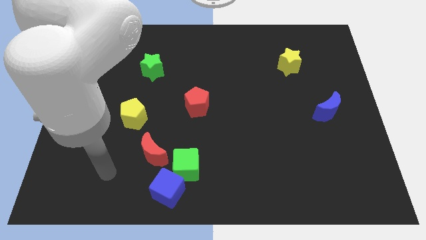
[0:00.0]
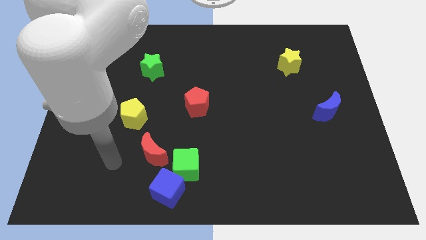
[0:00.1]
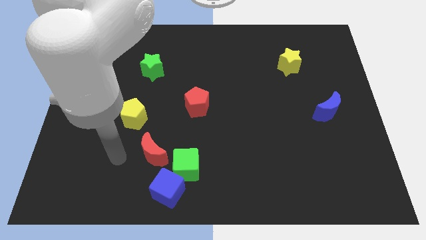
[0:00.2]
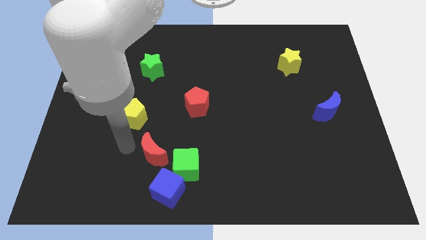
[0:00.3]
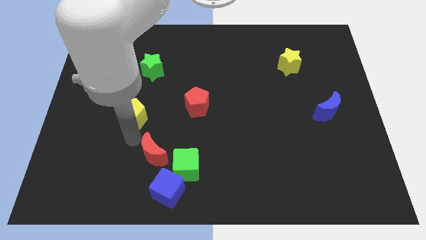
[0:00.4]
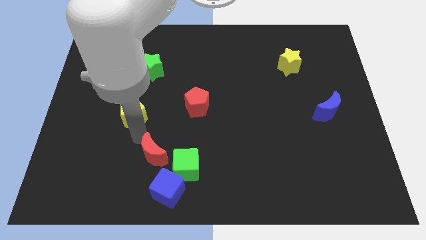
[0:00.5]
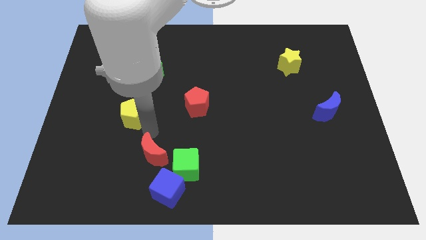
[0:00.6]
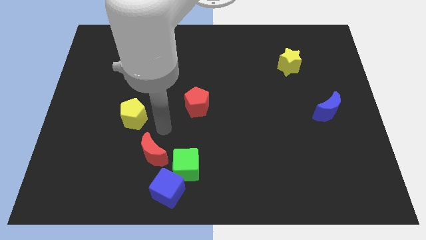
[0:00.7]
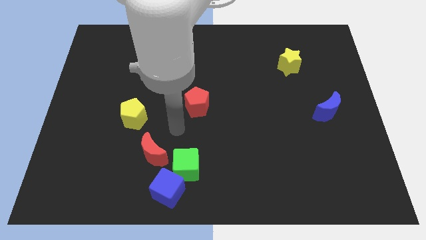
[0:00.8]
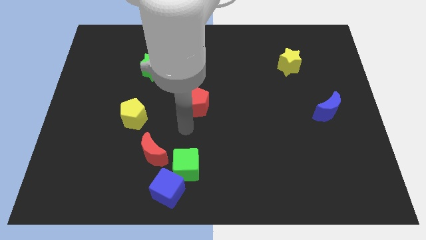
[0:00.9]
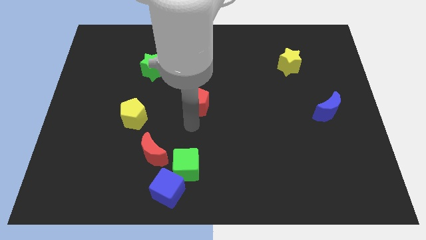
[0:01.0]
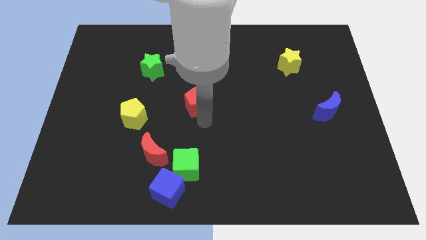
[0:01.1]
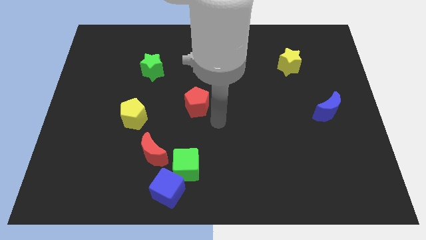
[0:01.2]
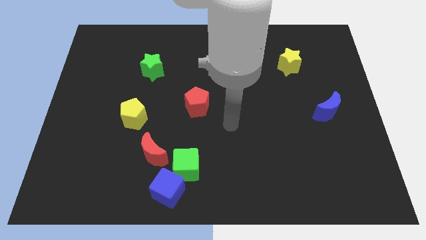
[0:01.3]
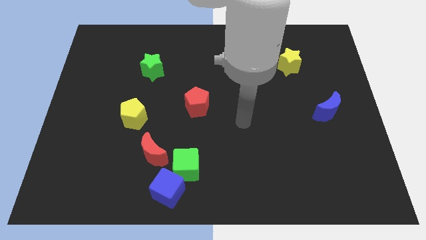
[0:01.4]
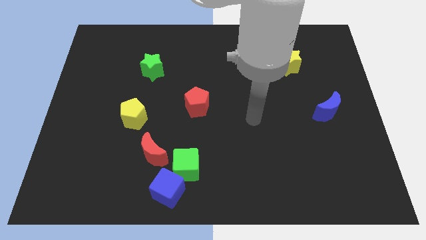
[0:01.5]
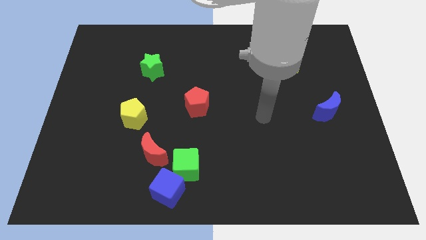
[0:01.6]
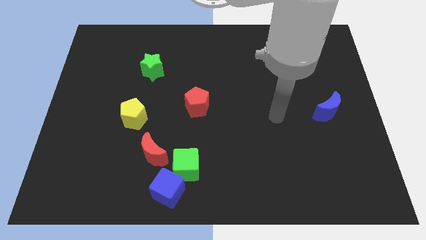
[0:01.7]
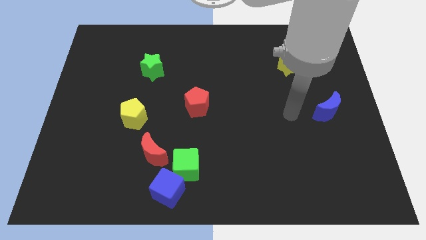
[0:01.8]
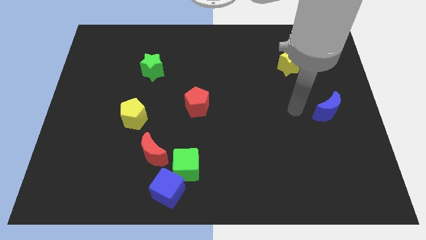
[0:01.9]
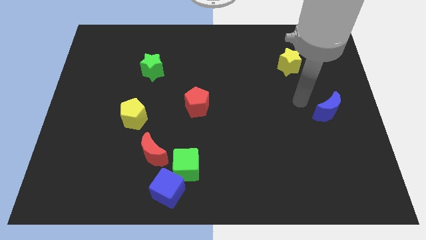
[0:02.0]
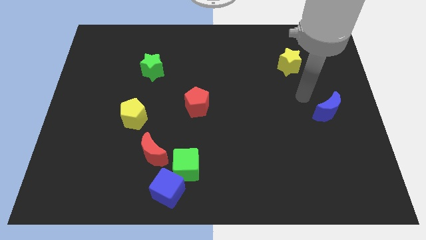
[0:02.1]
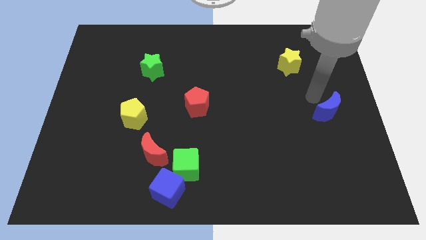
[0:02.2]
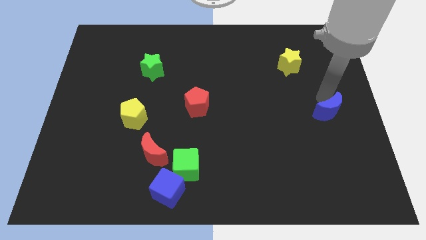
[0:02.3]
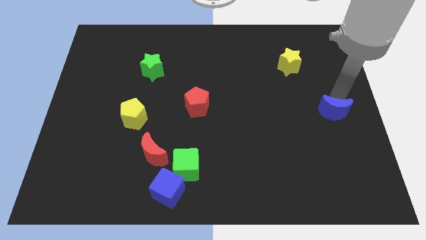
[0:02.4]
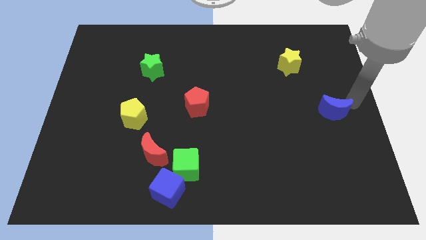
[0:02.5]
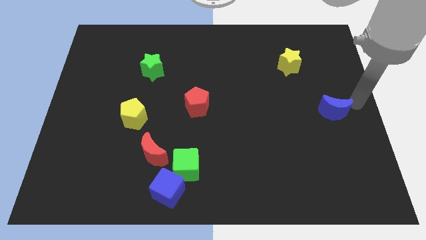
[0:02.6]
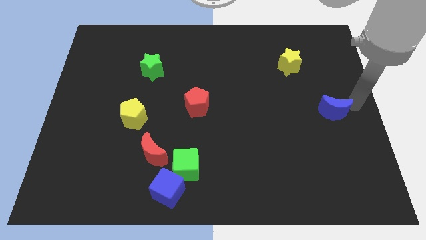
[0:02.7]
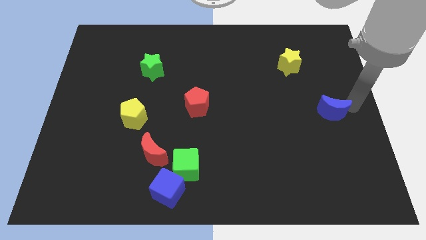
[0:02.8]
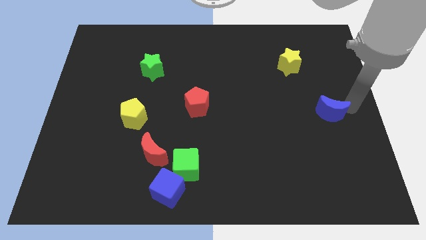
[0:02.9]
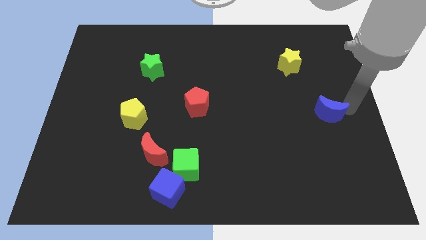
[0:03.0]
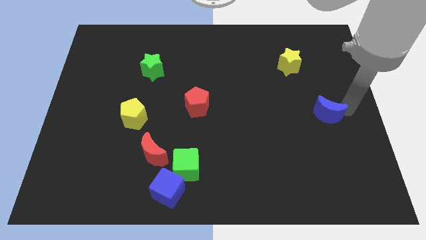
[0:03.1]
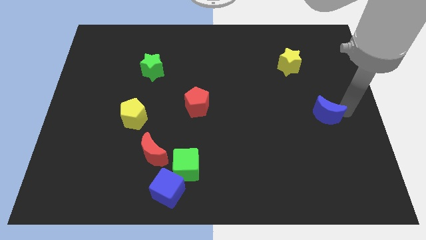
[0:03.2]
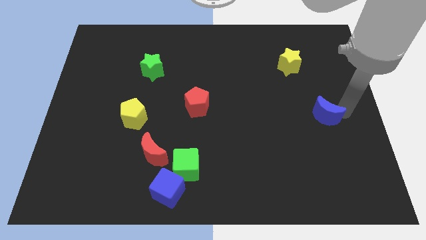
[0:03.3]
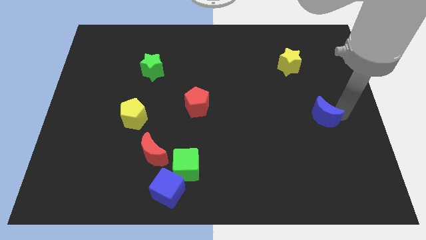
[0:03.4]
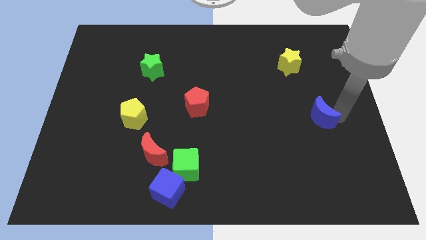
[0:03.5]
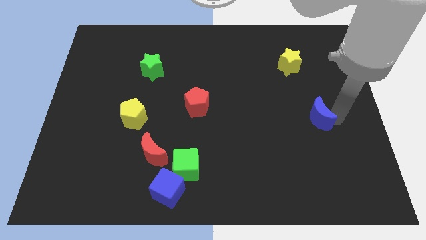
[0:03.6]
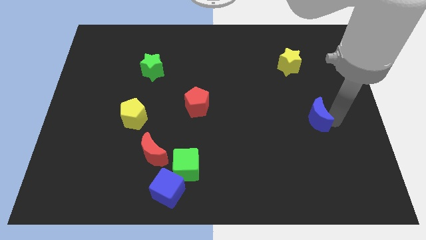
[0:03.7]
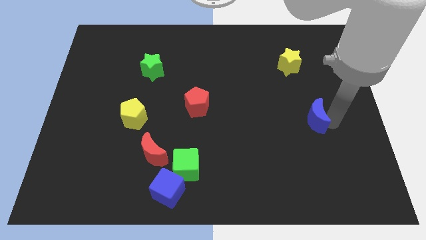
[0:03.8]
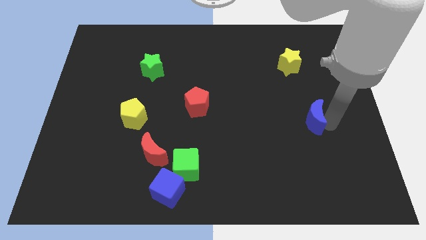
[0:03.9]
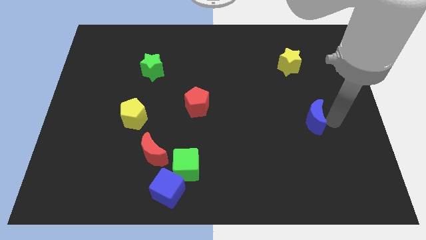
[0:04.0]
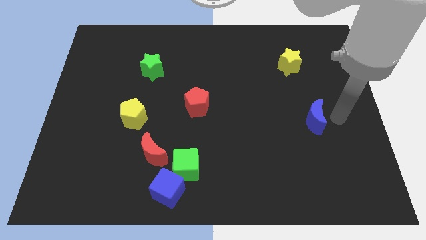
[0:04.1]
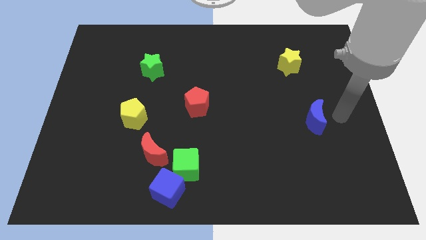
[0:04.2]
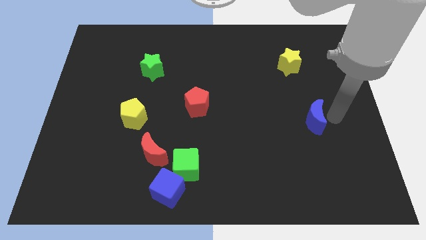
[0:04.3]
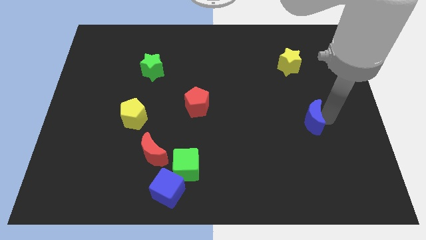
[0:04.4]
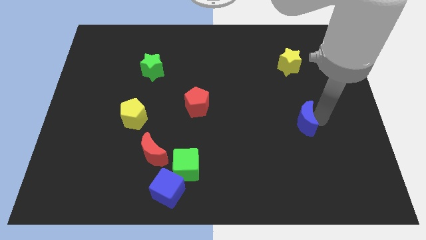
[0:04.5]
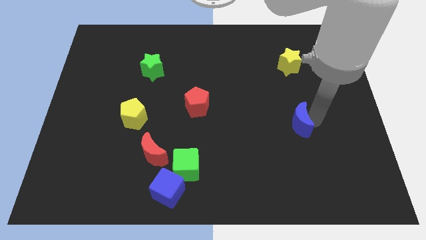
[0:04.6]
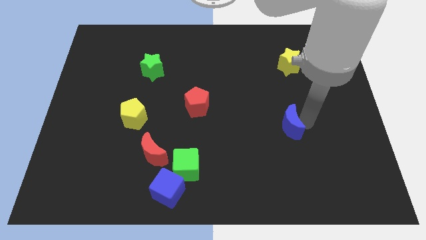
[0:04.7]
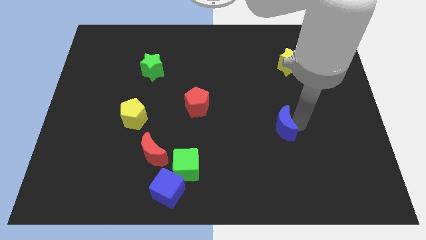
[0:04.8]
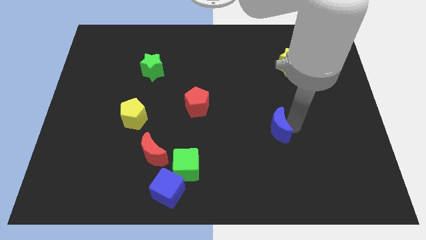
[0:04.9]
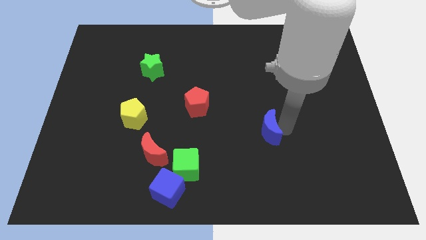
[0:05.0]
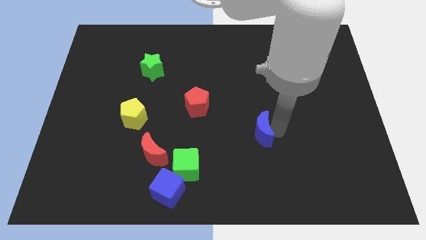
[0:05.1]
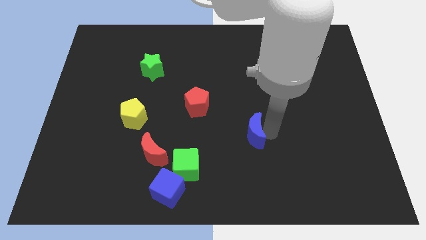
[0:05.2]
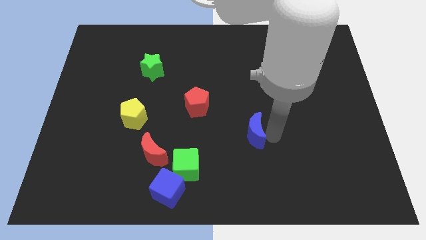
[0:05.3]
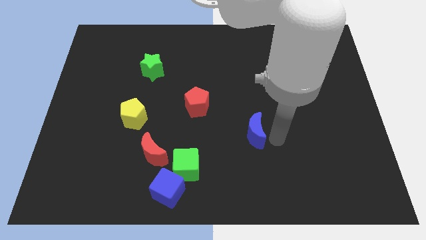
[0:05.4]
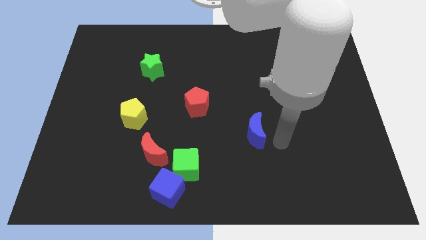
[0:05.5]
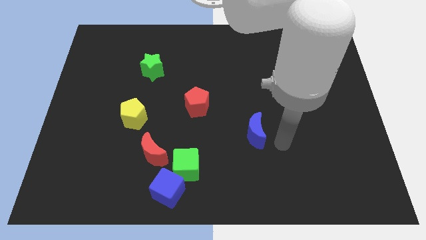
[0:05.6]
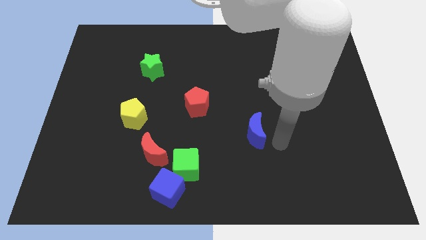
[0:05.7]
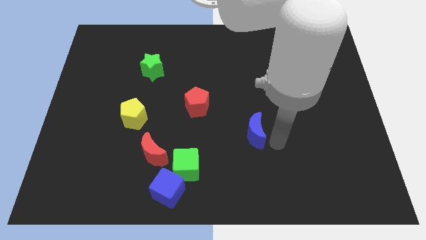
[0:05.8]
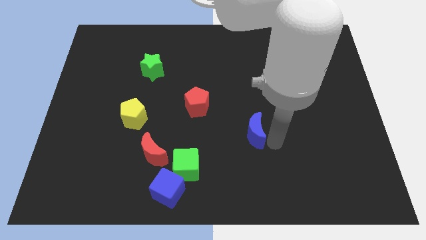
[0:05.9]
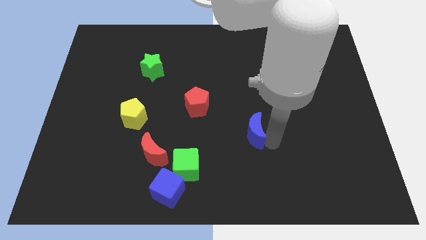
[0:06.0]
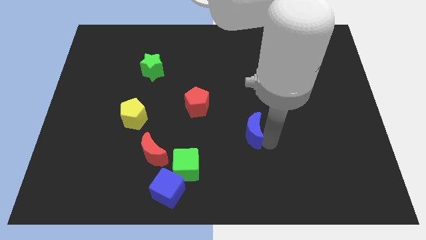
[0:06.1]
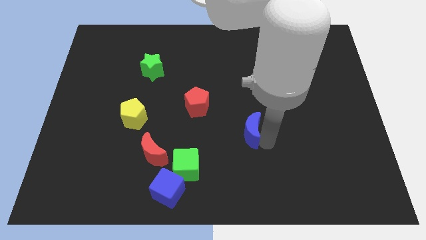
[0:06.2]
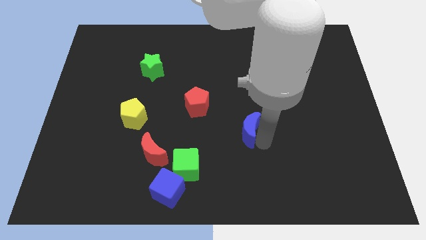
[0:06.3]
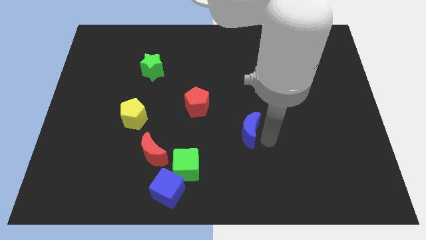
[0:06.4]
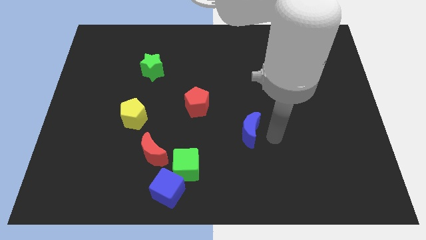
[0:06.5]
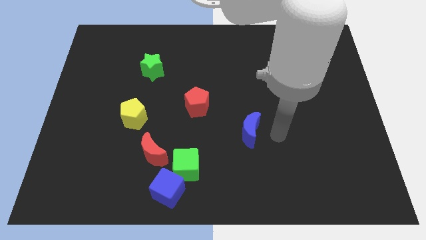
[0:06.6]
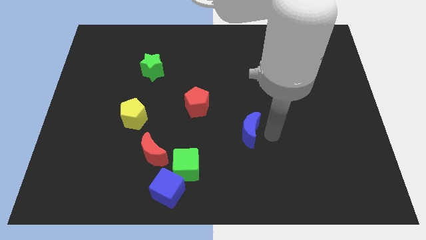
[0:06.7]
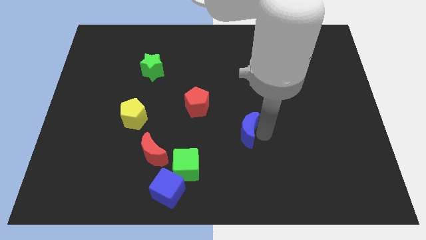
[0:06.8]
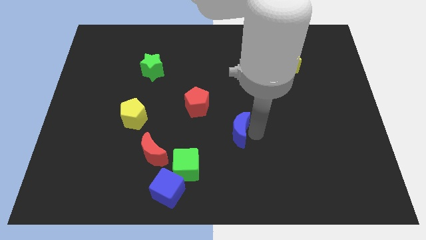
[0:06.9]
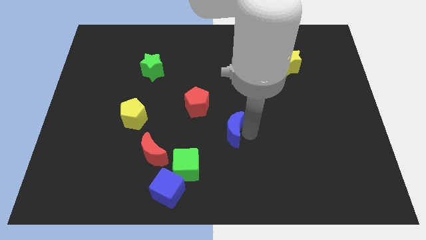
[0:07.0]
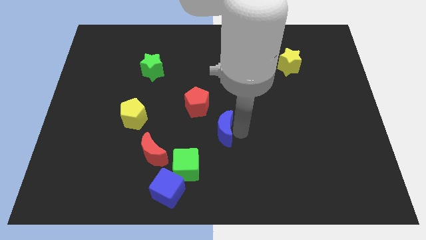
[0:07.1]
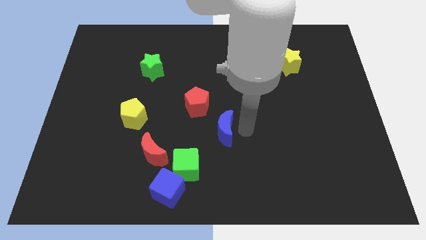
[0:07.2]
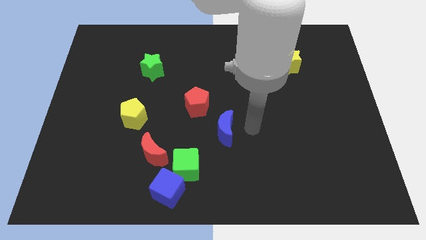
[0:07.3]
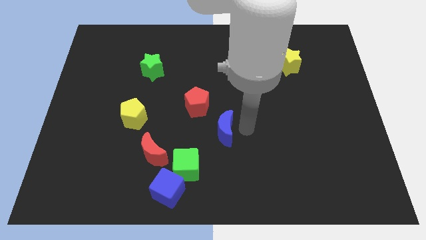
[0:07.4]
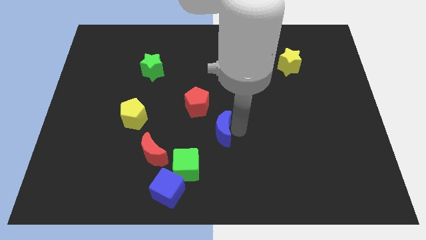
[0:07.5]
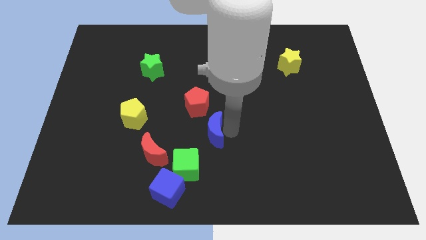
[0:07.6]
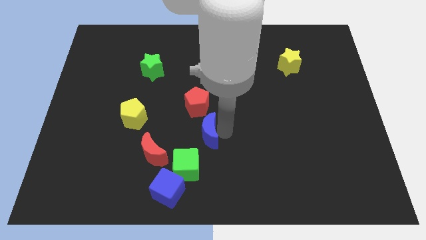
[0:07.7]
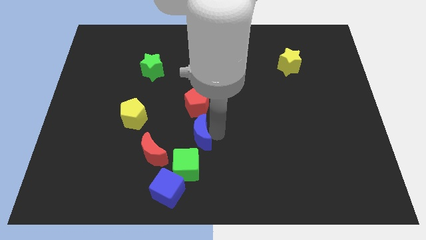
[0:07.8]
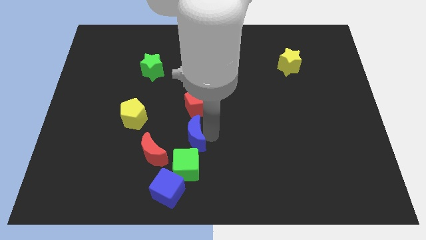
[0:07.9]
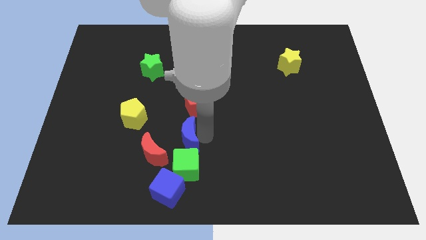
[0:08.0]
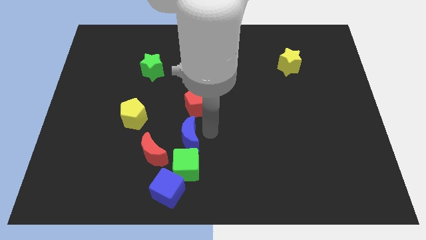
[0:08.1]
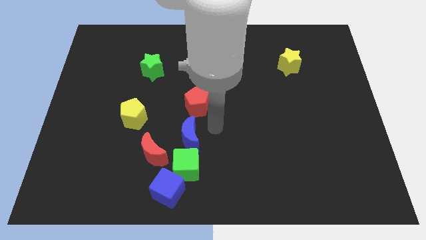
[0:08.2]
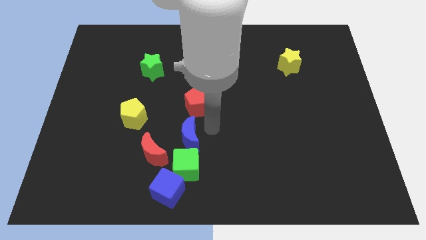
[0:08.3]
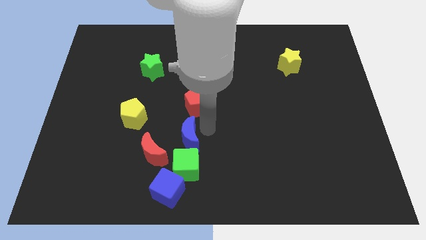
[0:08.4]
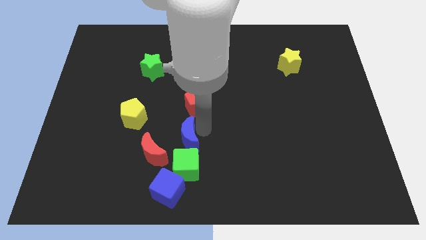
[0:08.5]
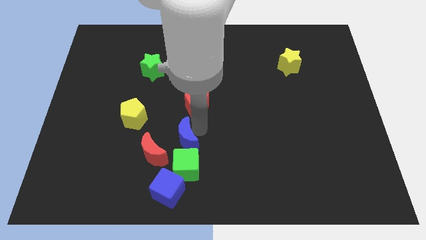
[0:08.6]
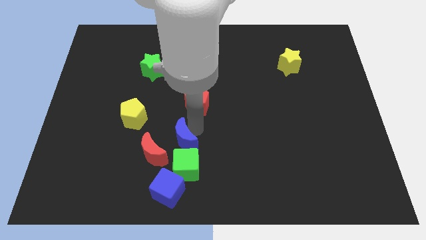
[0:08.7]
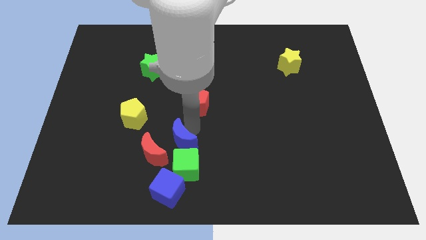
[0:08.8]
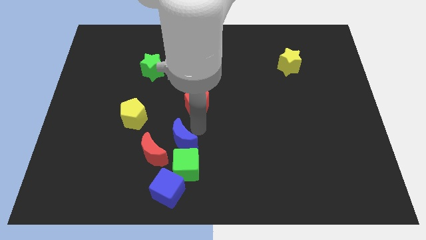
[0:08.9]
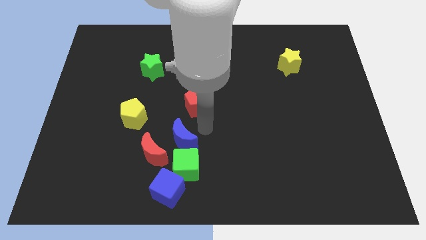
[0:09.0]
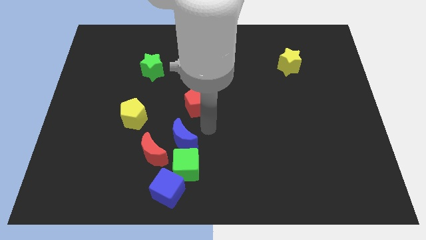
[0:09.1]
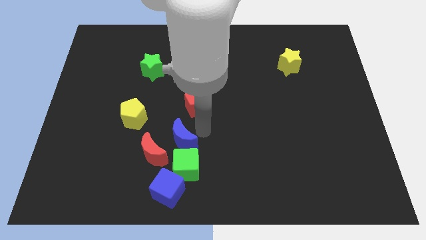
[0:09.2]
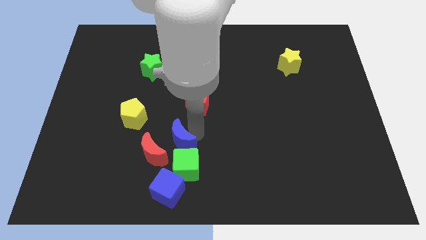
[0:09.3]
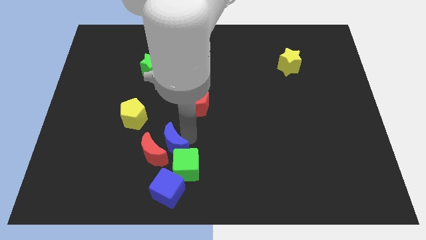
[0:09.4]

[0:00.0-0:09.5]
slide the blue moon next to the red moon
